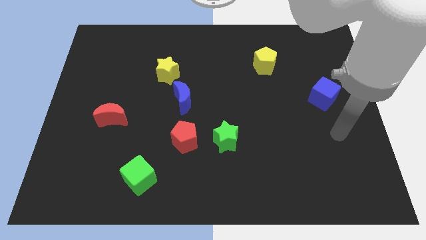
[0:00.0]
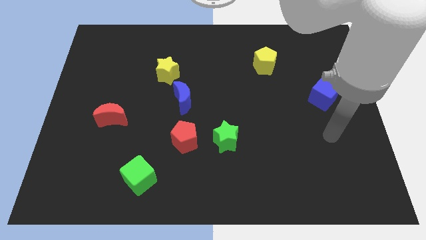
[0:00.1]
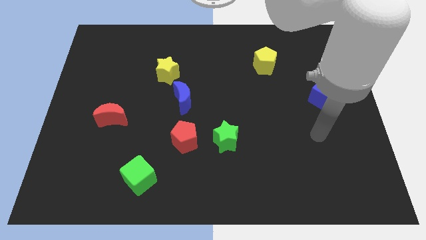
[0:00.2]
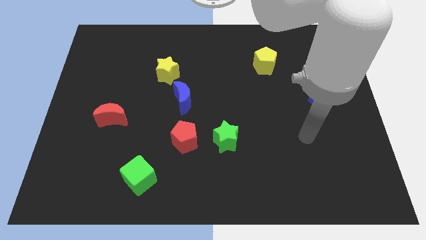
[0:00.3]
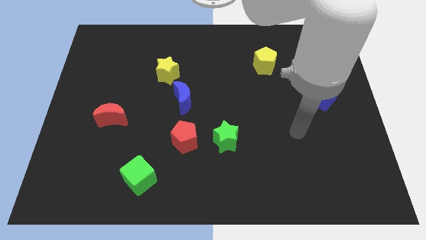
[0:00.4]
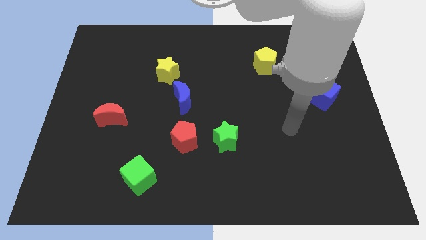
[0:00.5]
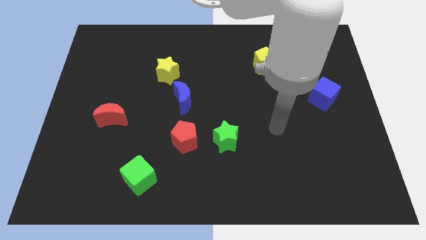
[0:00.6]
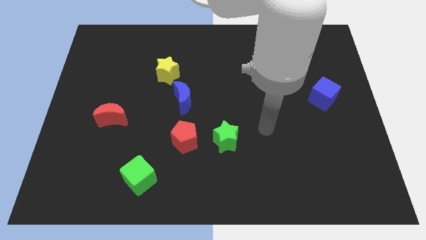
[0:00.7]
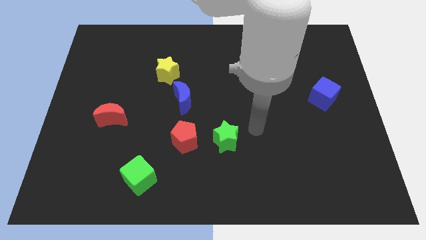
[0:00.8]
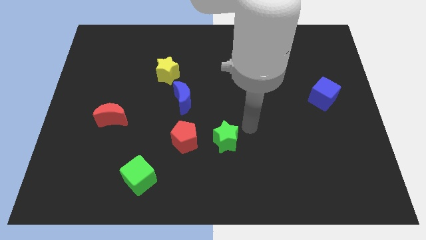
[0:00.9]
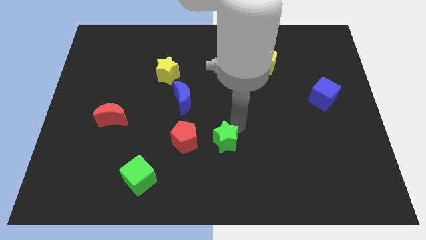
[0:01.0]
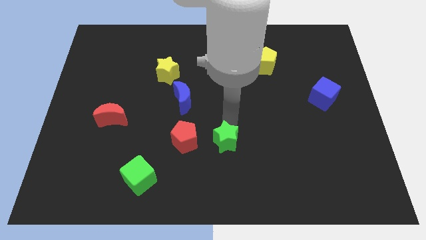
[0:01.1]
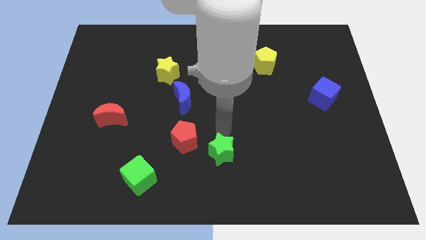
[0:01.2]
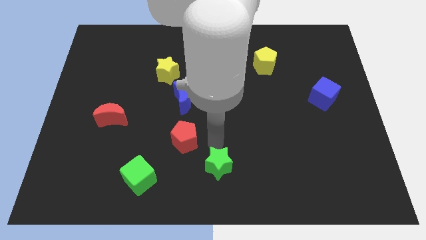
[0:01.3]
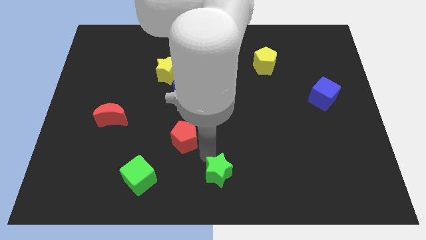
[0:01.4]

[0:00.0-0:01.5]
move the red pentagon away from the green star

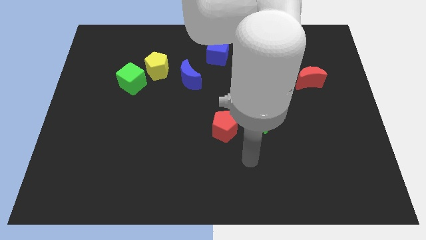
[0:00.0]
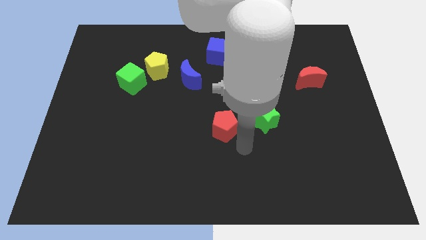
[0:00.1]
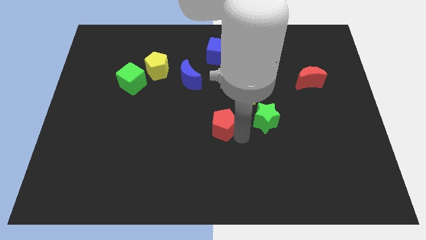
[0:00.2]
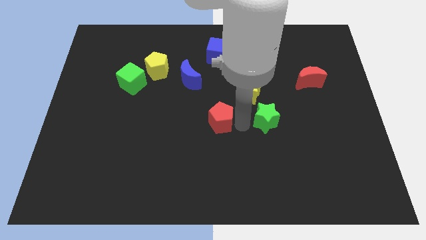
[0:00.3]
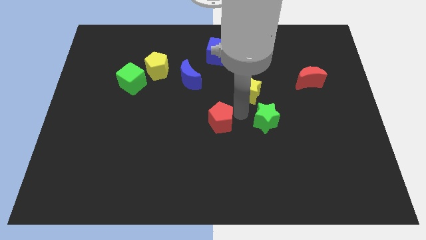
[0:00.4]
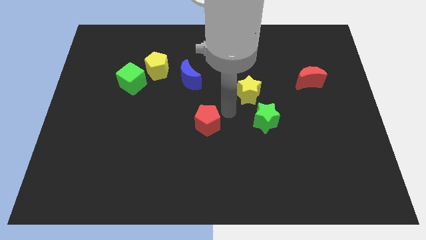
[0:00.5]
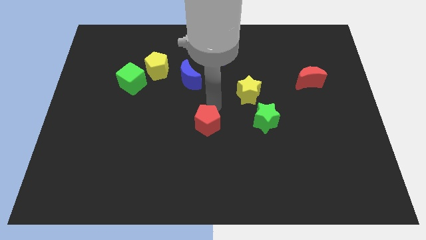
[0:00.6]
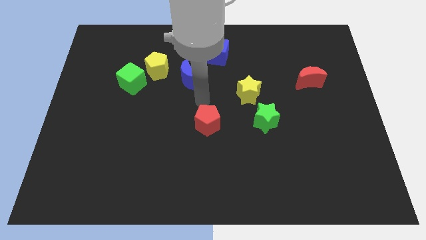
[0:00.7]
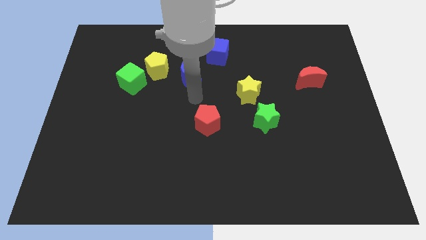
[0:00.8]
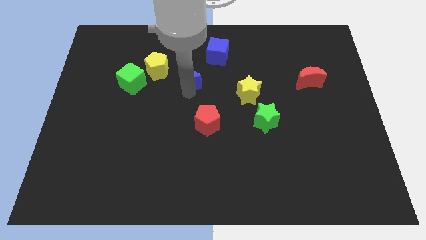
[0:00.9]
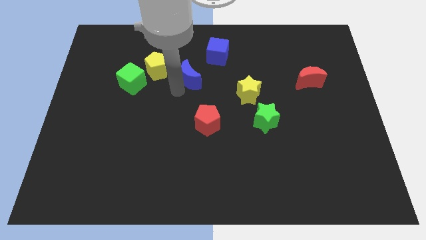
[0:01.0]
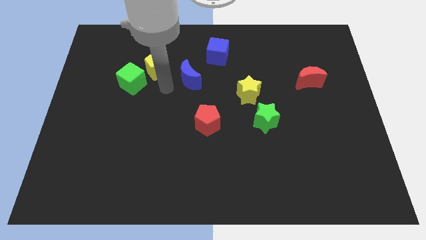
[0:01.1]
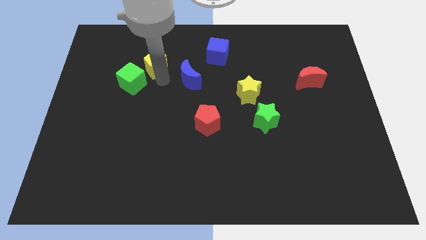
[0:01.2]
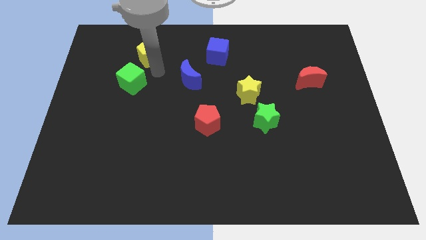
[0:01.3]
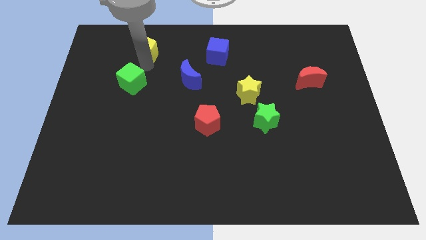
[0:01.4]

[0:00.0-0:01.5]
pull the green cube apart from the yellow pentagon

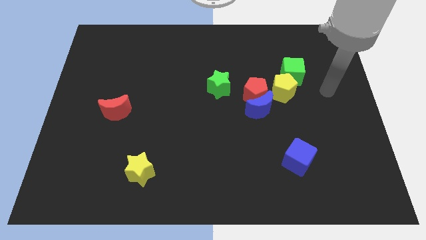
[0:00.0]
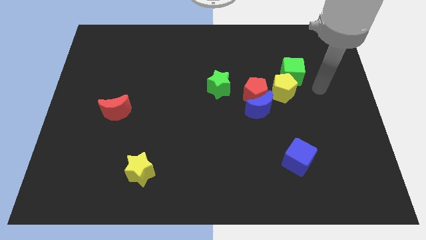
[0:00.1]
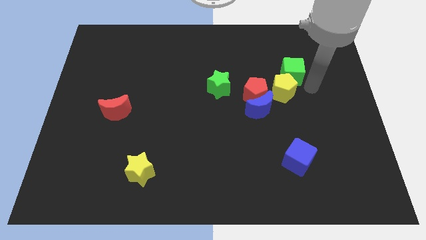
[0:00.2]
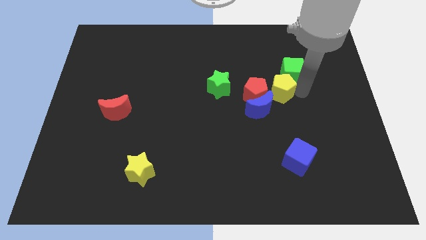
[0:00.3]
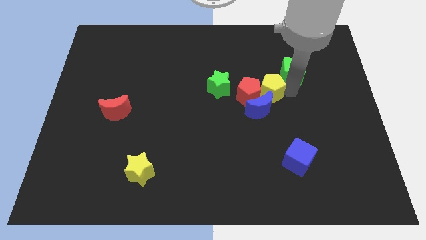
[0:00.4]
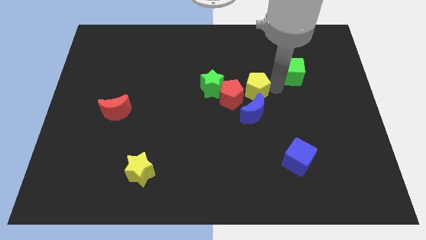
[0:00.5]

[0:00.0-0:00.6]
move the green cube away from the yellow pentagon

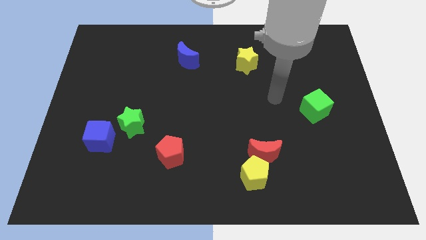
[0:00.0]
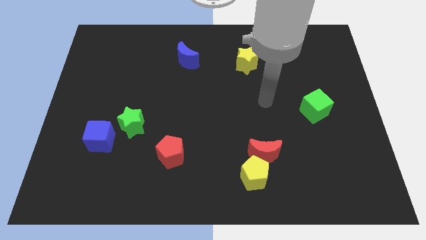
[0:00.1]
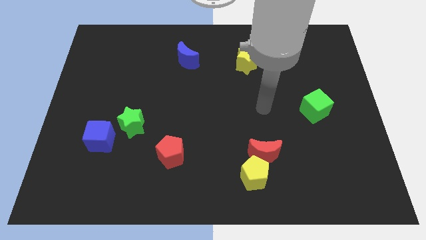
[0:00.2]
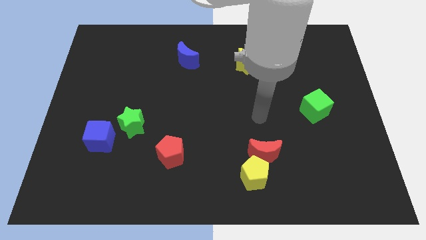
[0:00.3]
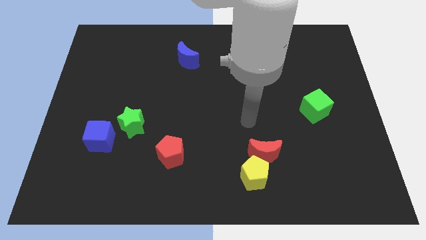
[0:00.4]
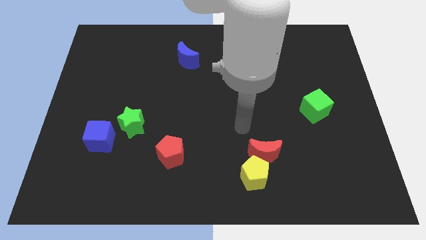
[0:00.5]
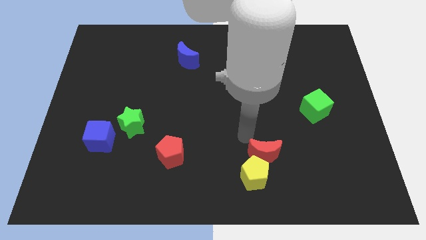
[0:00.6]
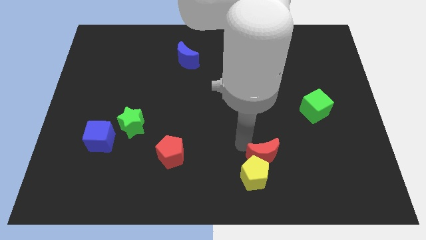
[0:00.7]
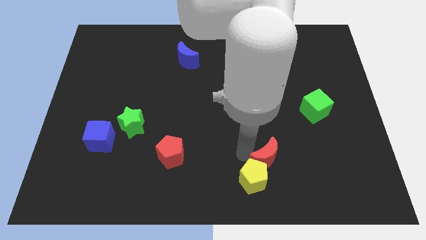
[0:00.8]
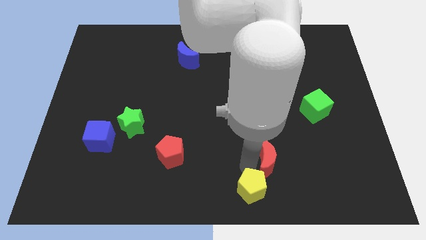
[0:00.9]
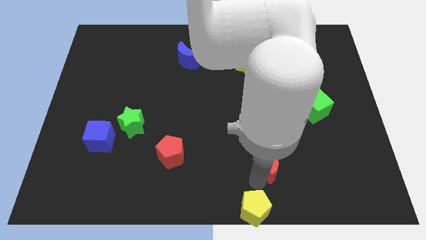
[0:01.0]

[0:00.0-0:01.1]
move the red moon away from the yellow pentagon

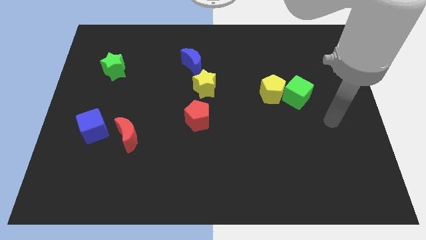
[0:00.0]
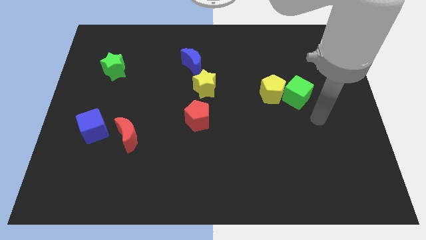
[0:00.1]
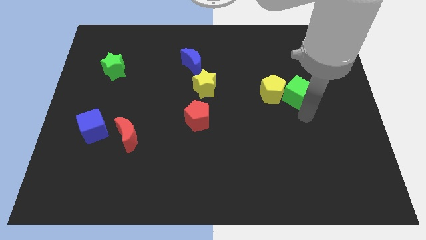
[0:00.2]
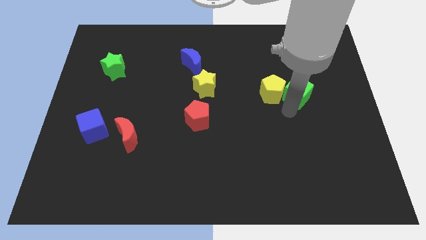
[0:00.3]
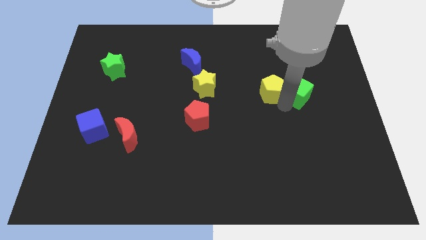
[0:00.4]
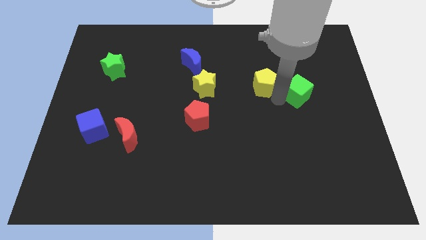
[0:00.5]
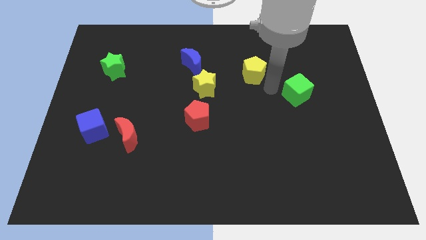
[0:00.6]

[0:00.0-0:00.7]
separate the green cube from the yellow pentagon

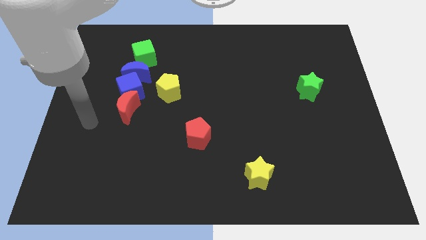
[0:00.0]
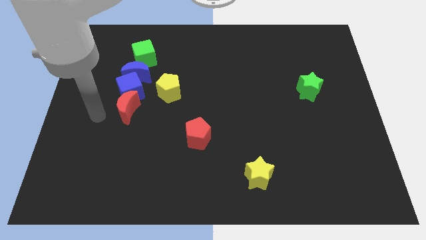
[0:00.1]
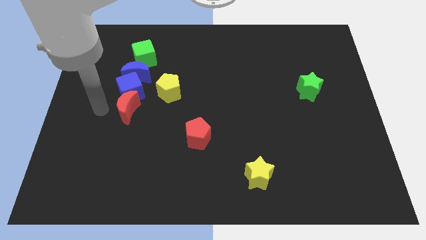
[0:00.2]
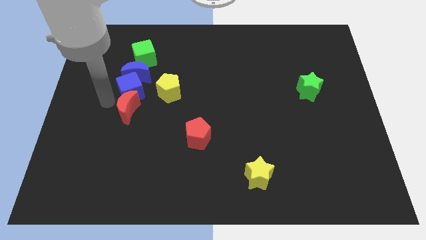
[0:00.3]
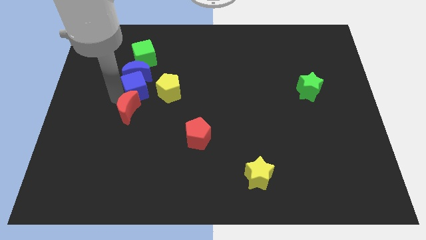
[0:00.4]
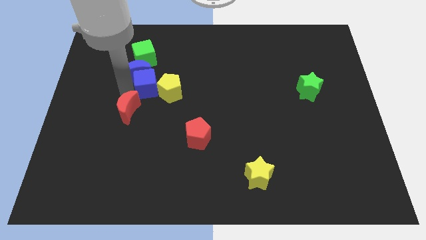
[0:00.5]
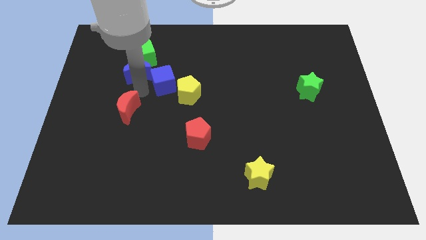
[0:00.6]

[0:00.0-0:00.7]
separate the red moon from the blue cube

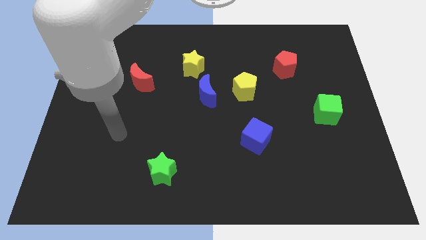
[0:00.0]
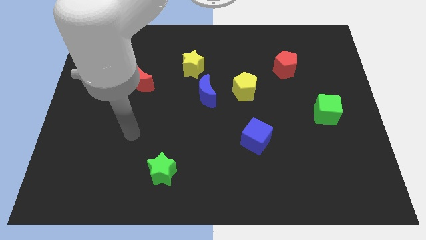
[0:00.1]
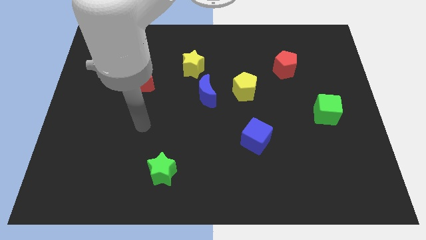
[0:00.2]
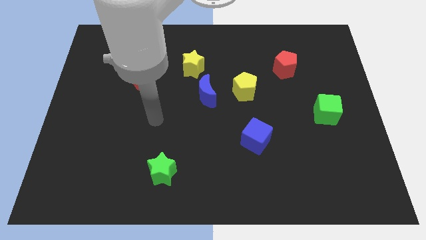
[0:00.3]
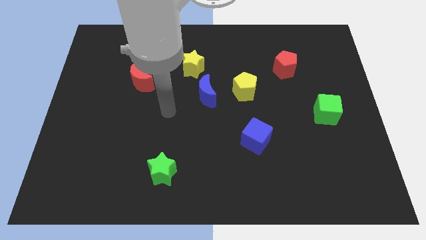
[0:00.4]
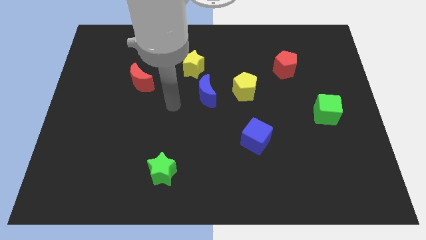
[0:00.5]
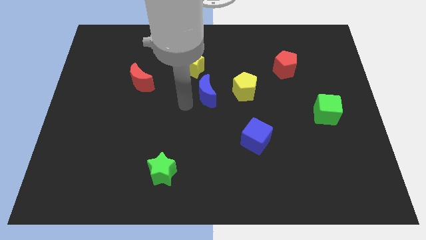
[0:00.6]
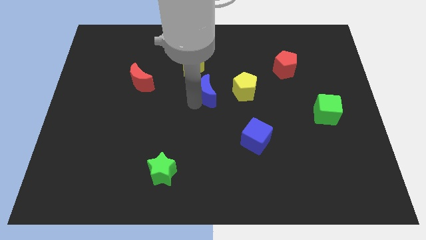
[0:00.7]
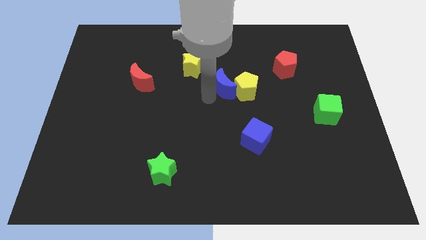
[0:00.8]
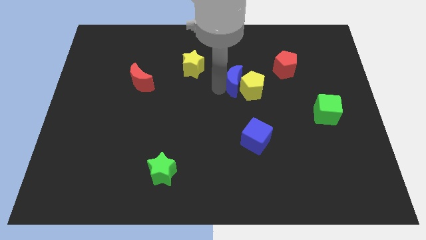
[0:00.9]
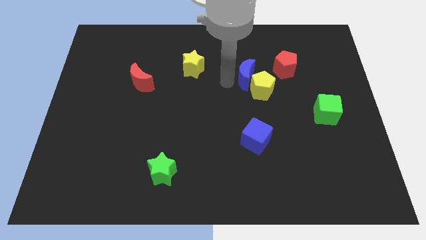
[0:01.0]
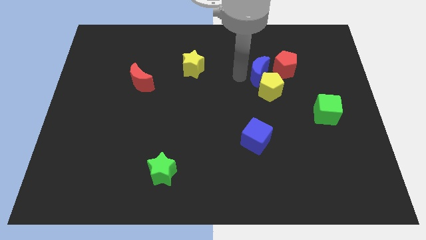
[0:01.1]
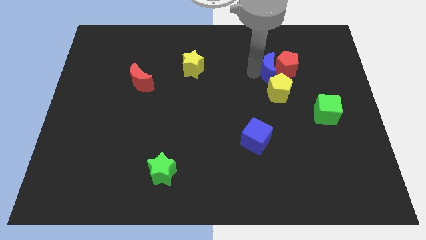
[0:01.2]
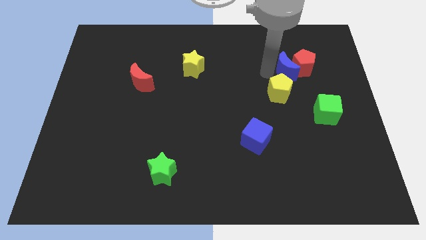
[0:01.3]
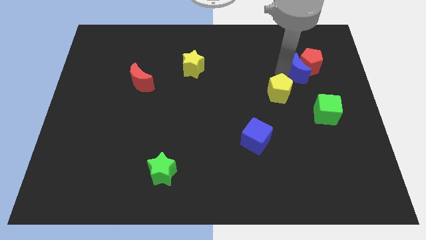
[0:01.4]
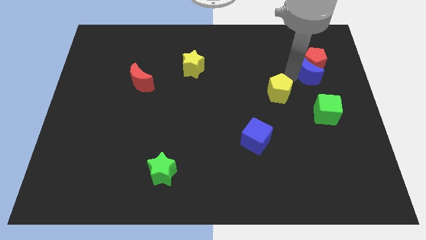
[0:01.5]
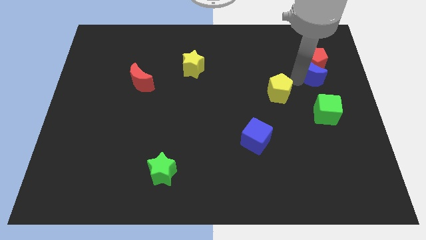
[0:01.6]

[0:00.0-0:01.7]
move the yellow pentagon away from the blue moon

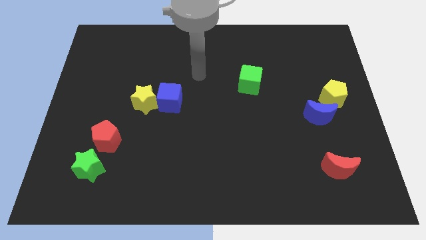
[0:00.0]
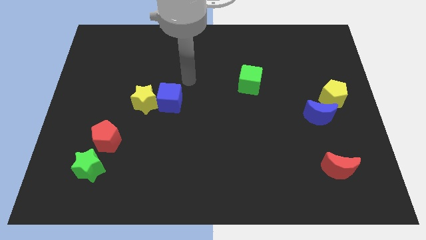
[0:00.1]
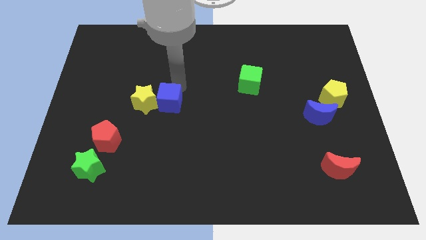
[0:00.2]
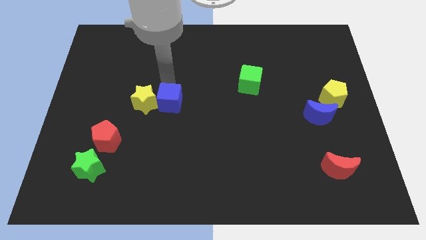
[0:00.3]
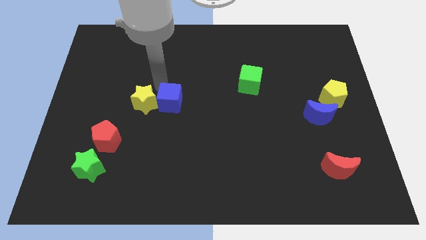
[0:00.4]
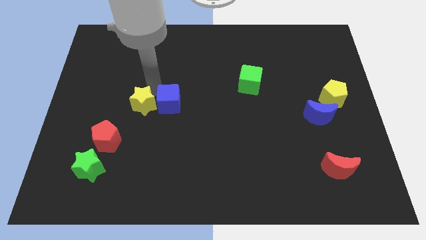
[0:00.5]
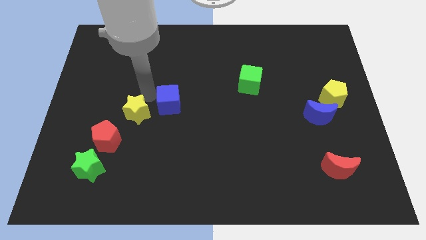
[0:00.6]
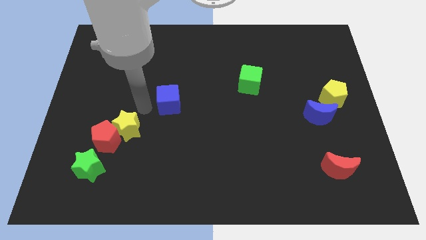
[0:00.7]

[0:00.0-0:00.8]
separate the blue cube from the yellow star

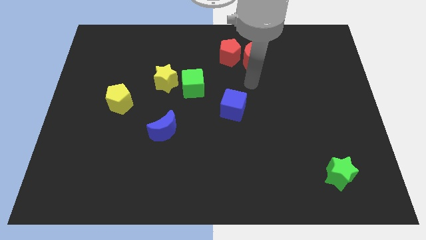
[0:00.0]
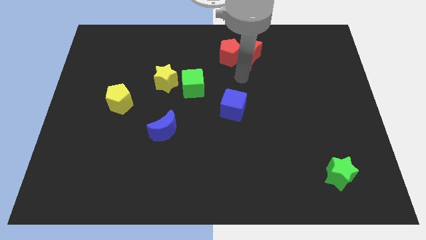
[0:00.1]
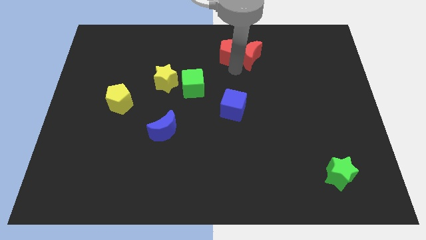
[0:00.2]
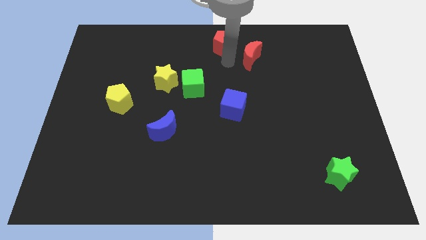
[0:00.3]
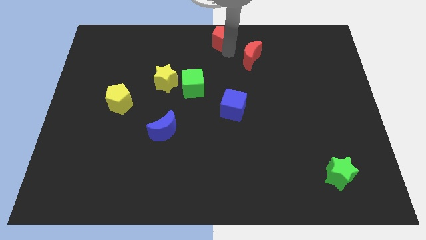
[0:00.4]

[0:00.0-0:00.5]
pull the red moon apart from the red pentagon

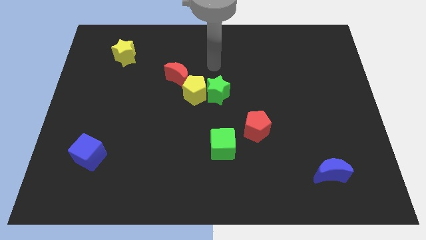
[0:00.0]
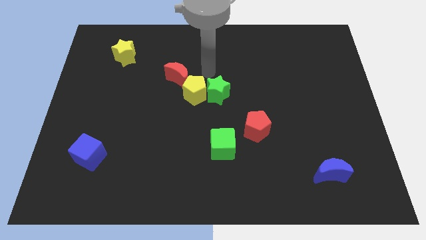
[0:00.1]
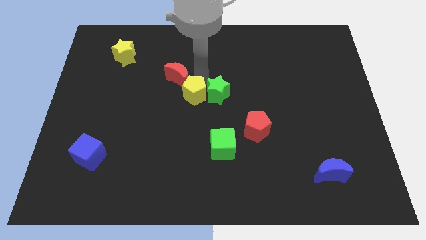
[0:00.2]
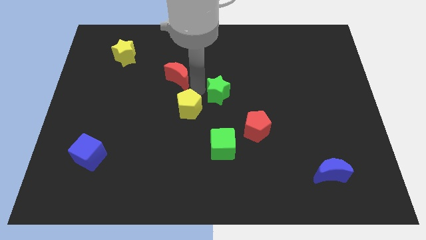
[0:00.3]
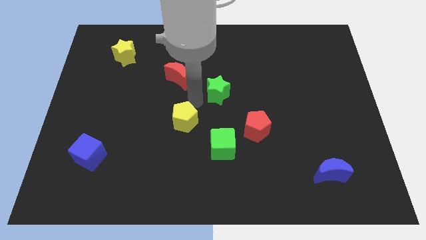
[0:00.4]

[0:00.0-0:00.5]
move the green star away from the yellow pentagon
